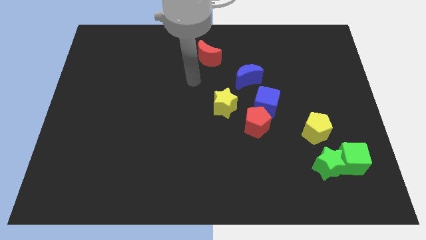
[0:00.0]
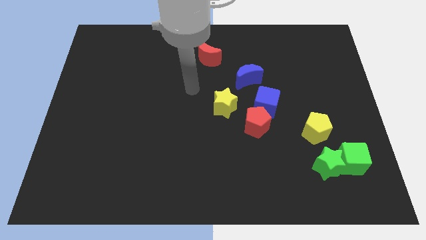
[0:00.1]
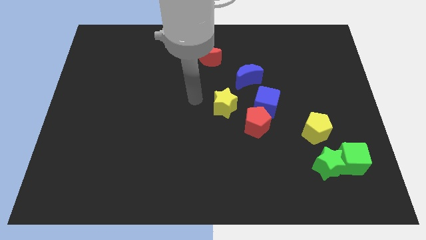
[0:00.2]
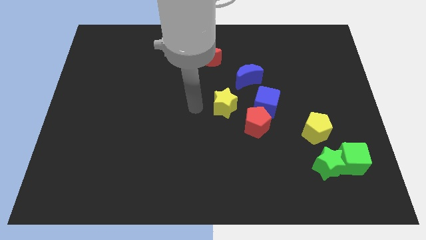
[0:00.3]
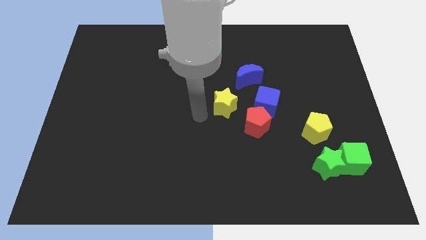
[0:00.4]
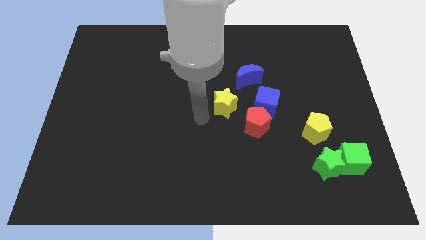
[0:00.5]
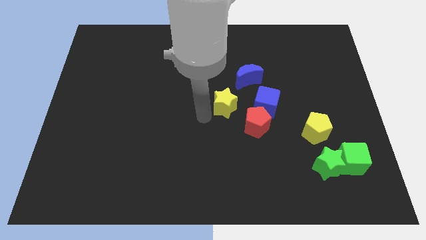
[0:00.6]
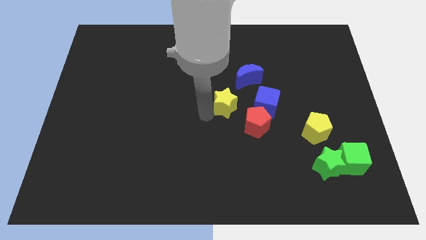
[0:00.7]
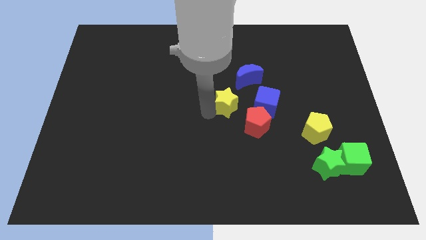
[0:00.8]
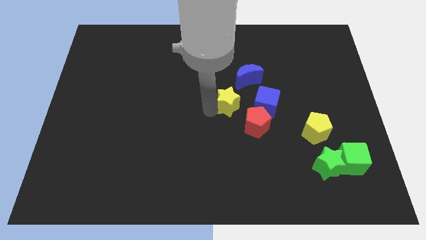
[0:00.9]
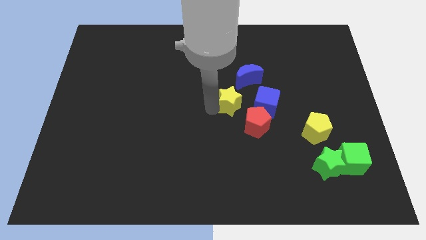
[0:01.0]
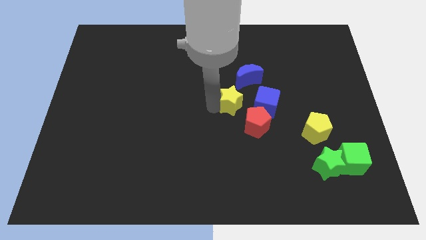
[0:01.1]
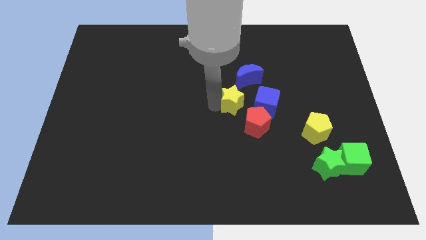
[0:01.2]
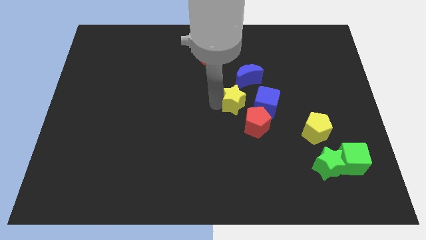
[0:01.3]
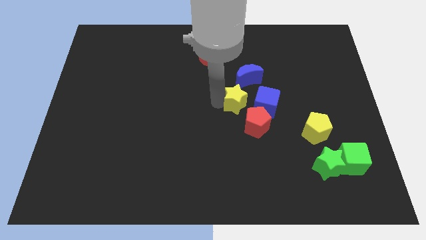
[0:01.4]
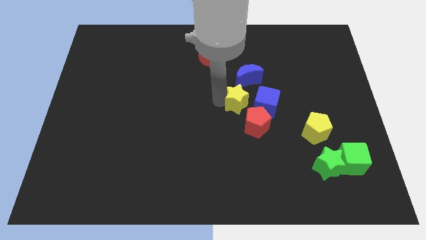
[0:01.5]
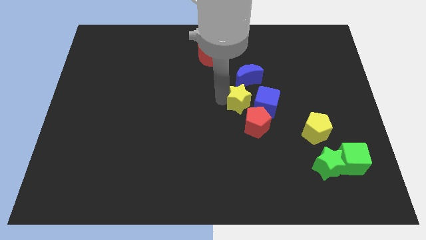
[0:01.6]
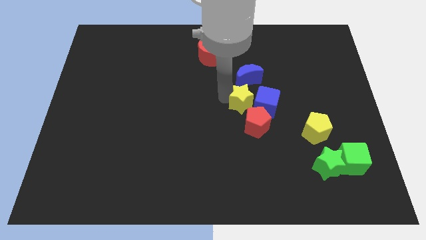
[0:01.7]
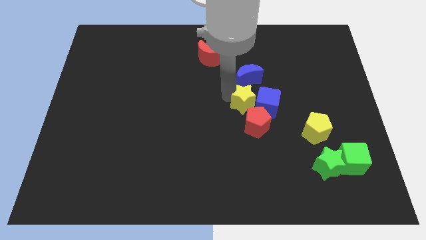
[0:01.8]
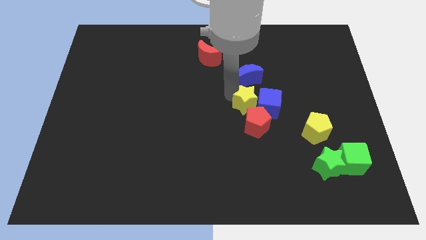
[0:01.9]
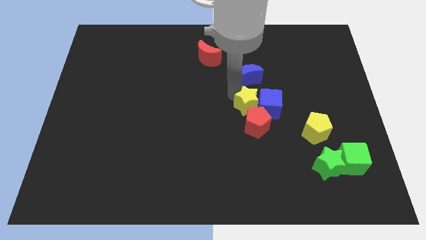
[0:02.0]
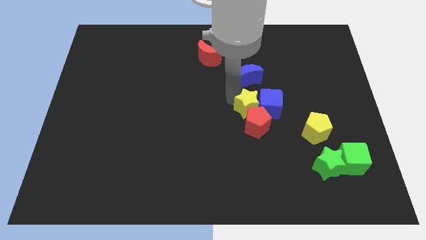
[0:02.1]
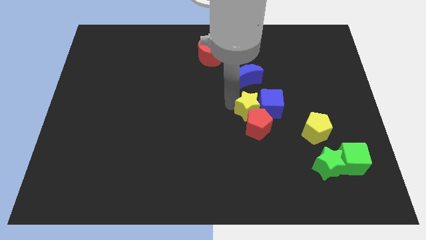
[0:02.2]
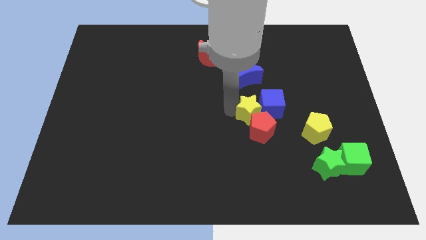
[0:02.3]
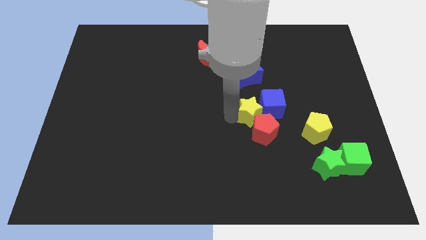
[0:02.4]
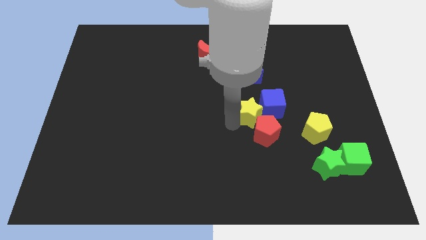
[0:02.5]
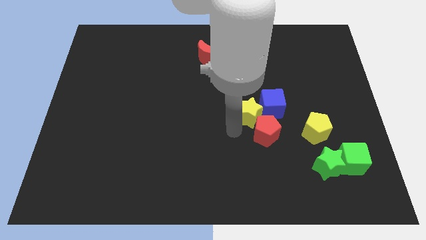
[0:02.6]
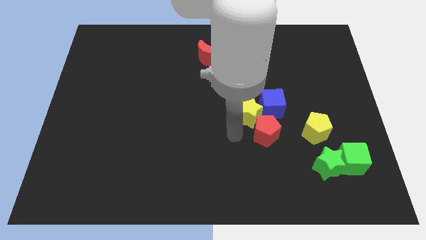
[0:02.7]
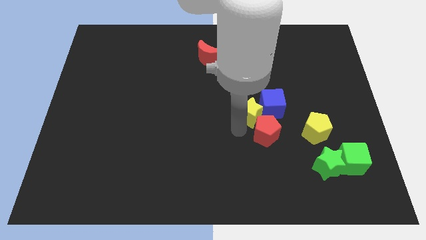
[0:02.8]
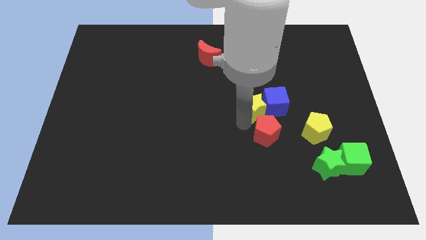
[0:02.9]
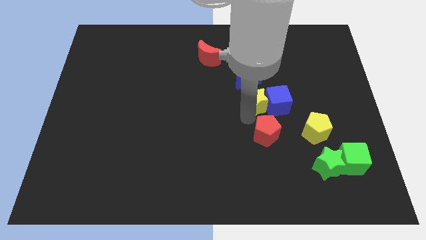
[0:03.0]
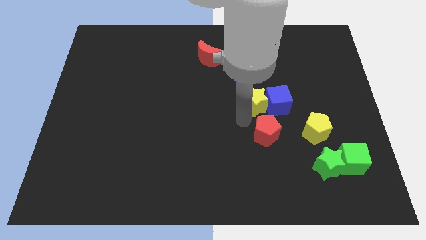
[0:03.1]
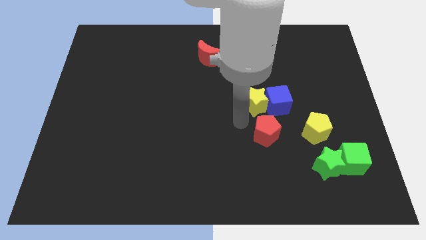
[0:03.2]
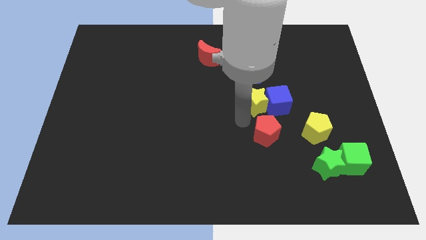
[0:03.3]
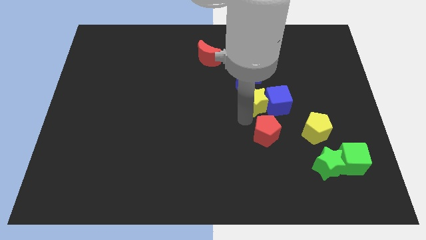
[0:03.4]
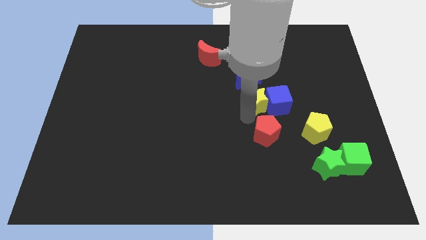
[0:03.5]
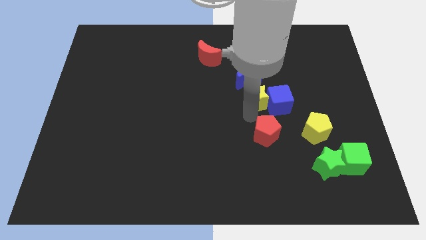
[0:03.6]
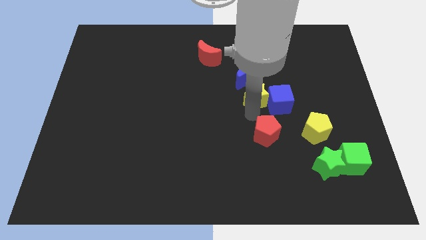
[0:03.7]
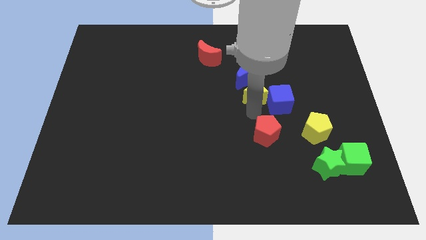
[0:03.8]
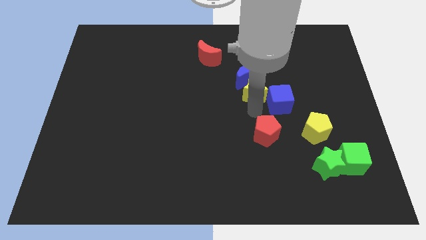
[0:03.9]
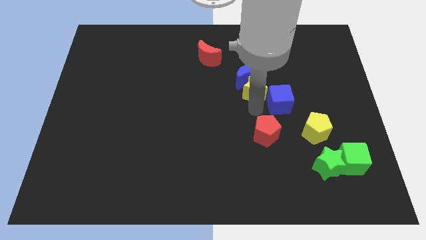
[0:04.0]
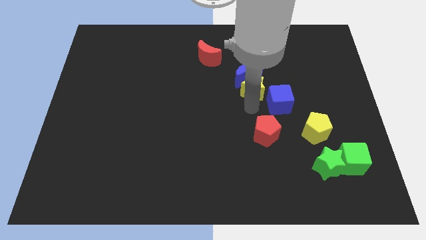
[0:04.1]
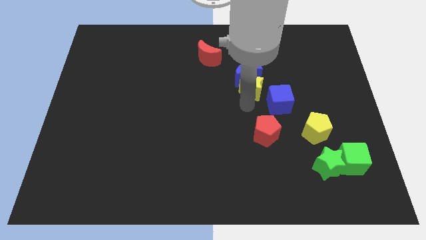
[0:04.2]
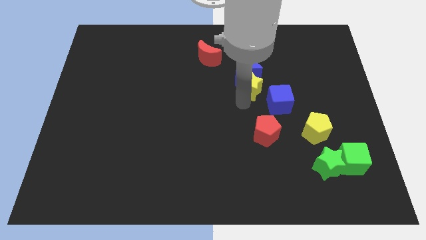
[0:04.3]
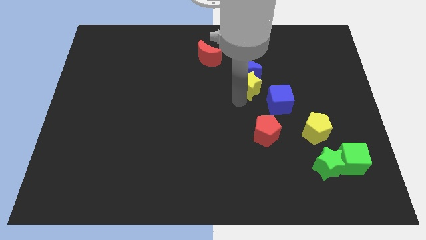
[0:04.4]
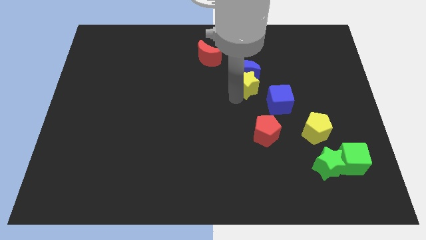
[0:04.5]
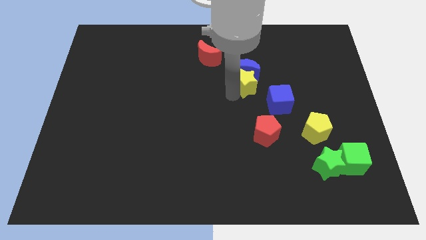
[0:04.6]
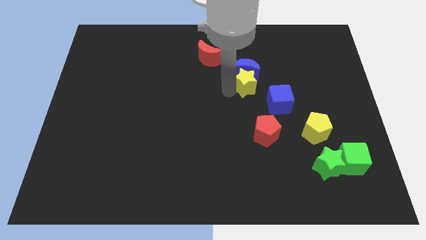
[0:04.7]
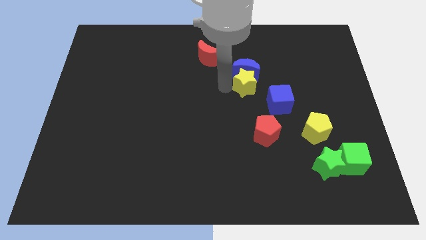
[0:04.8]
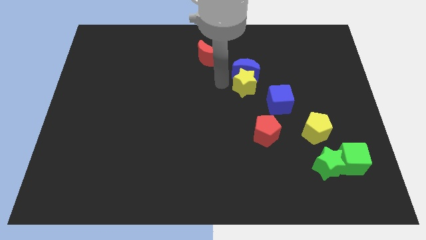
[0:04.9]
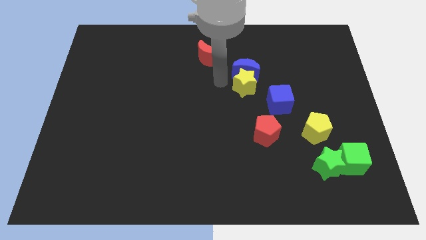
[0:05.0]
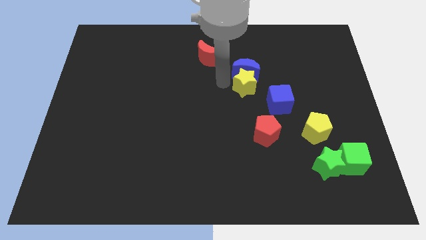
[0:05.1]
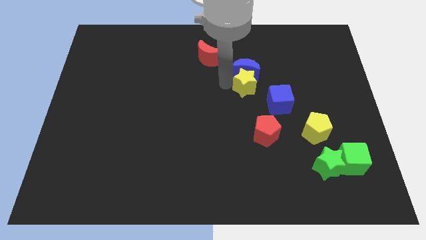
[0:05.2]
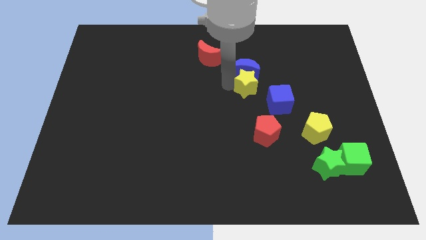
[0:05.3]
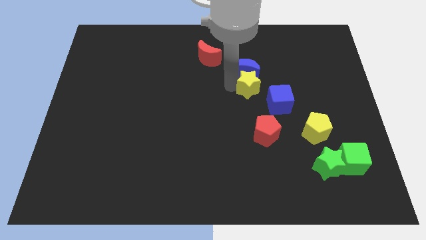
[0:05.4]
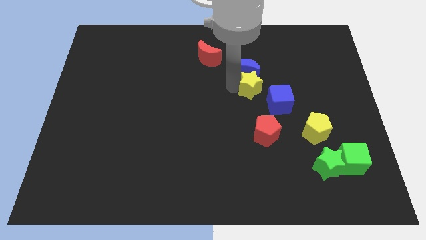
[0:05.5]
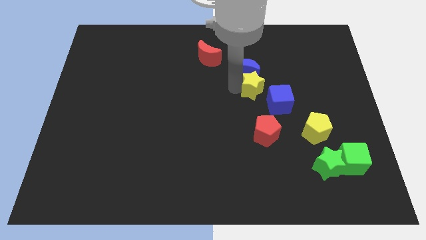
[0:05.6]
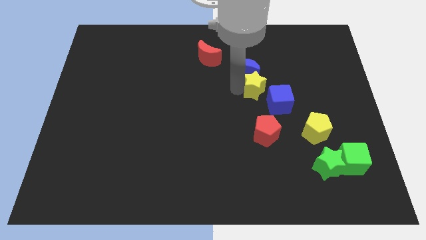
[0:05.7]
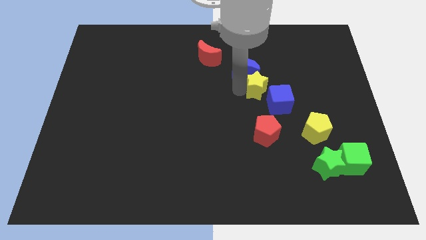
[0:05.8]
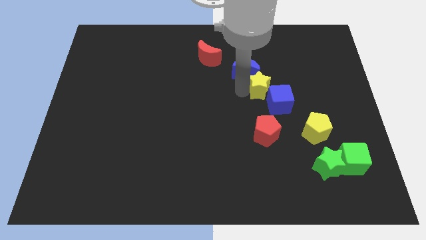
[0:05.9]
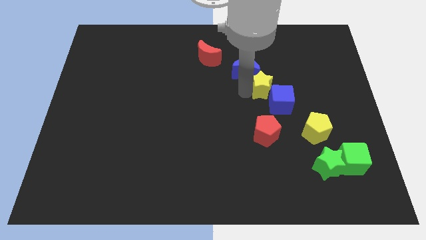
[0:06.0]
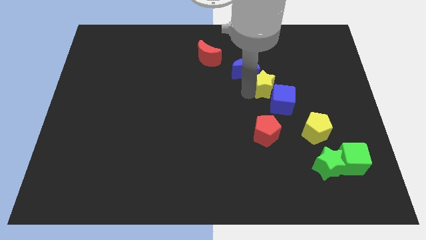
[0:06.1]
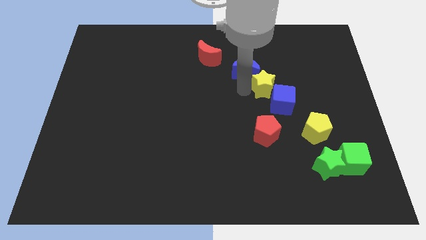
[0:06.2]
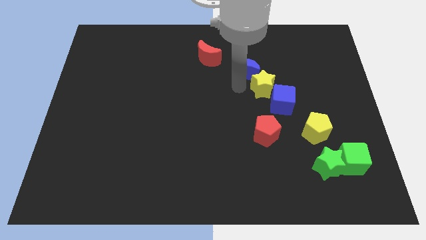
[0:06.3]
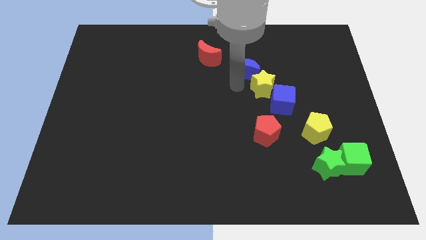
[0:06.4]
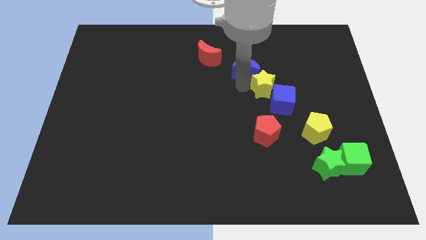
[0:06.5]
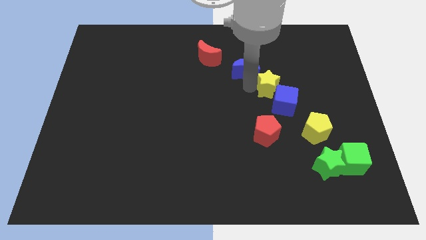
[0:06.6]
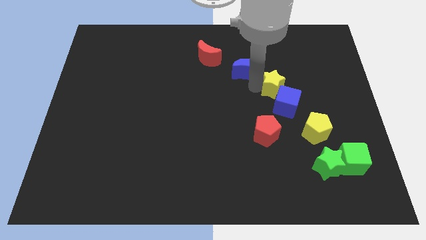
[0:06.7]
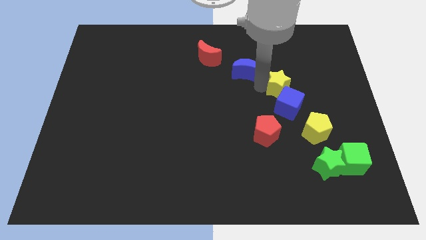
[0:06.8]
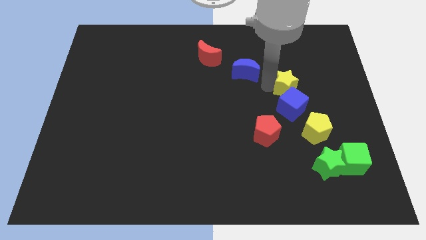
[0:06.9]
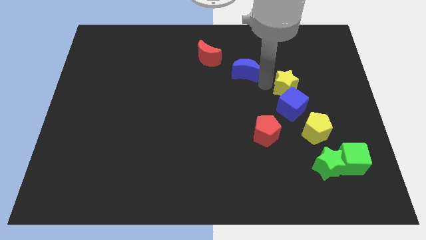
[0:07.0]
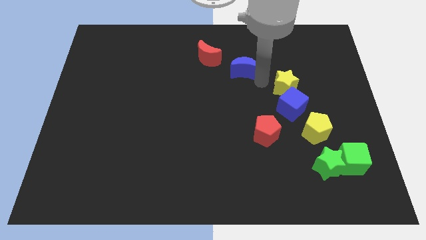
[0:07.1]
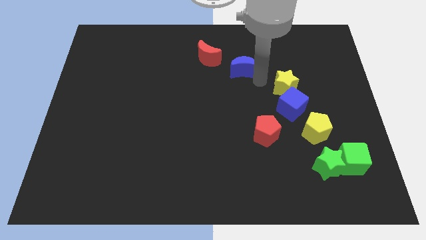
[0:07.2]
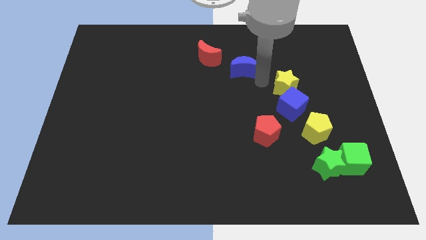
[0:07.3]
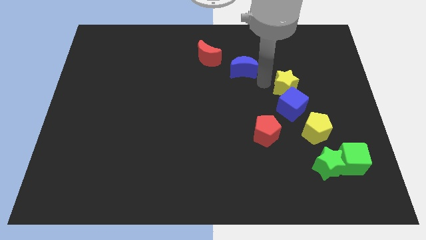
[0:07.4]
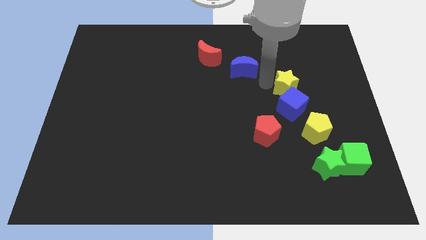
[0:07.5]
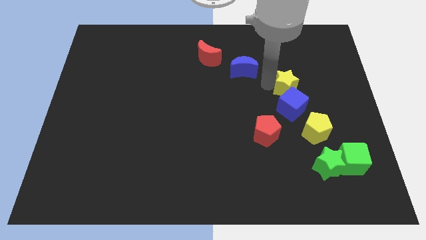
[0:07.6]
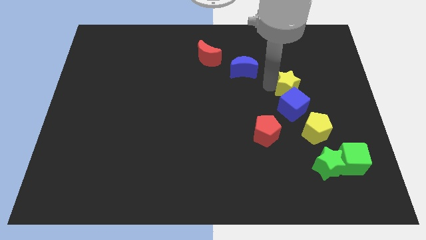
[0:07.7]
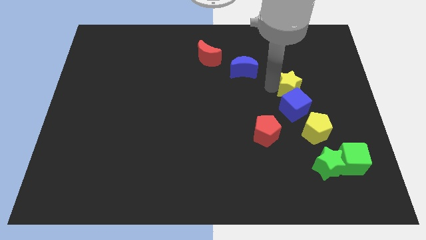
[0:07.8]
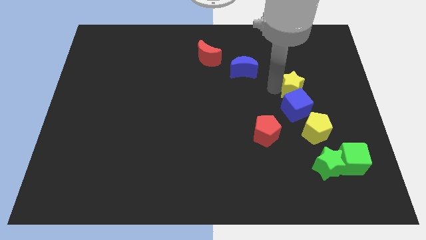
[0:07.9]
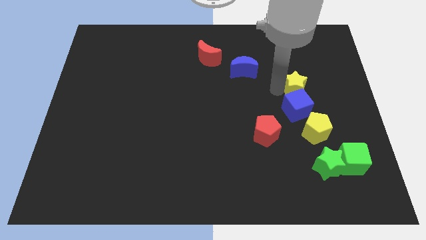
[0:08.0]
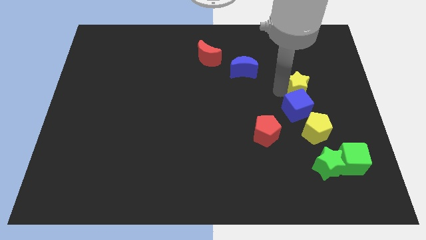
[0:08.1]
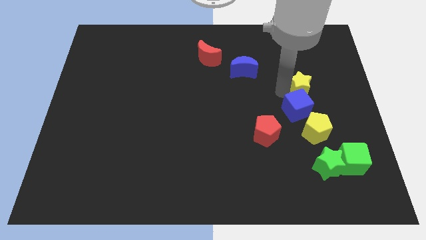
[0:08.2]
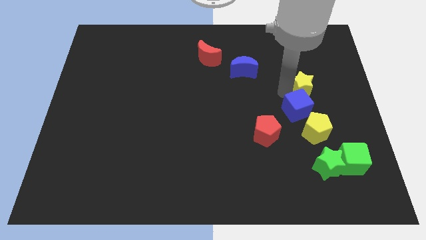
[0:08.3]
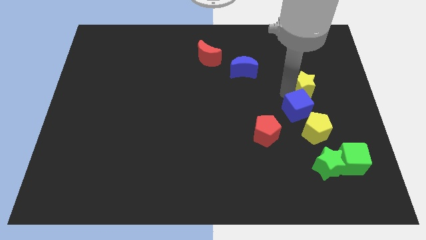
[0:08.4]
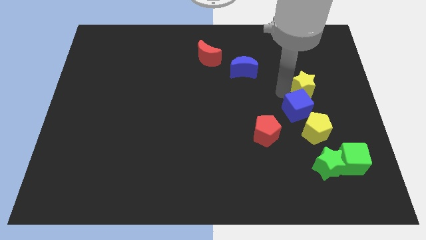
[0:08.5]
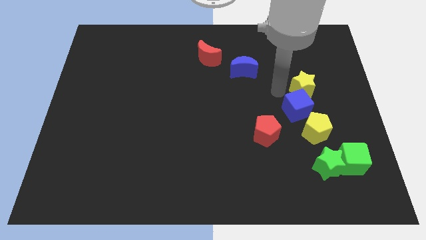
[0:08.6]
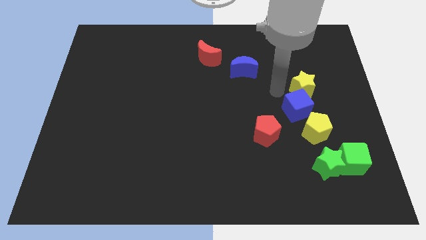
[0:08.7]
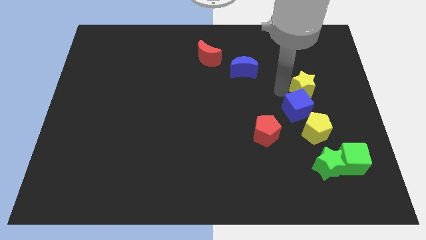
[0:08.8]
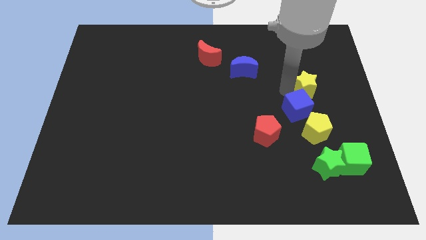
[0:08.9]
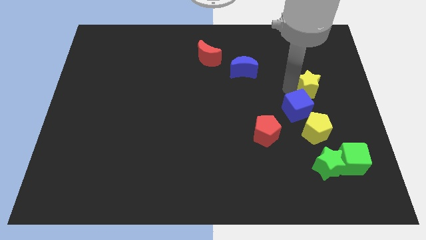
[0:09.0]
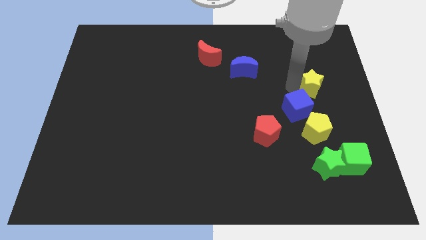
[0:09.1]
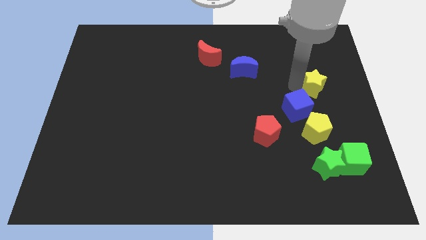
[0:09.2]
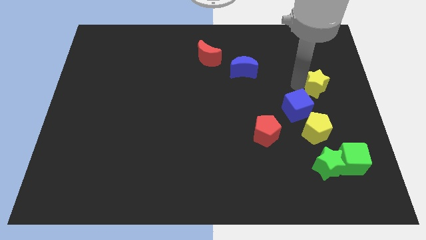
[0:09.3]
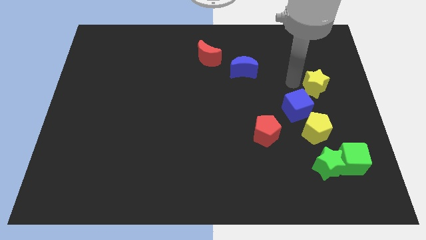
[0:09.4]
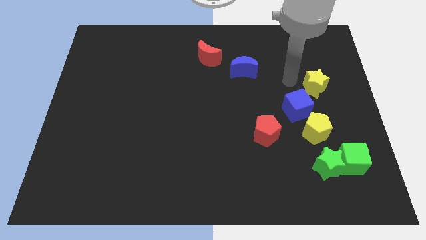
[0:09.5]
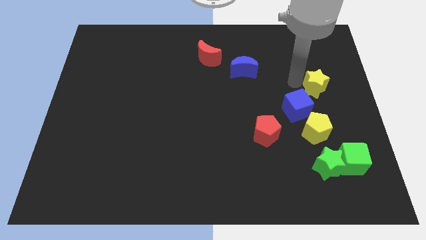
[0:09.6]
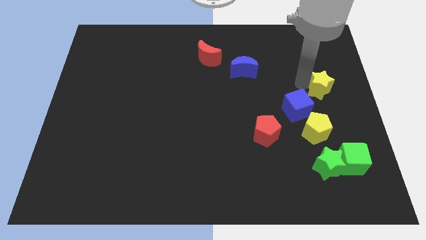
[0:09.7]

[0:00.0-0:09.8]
move the yellow star to the right side
